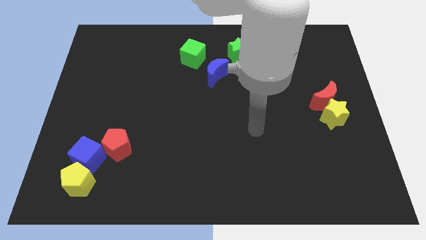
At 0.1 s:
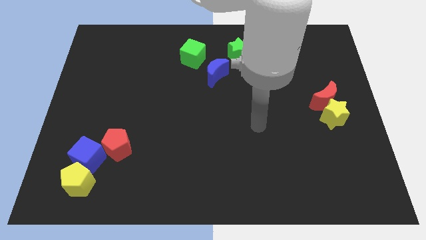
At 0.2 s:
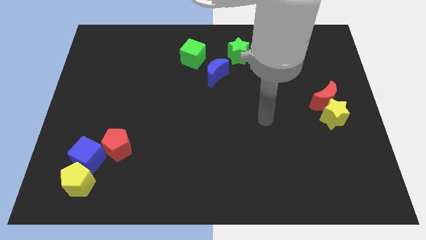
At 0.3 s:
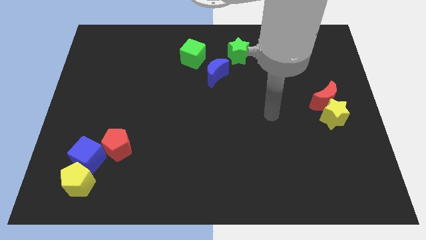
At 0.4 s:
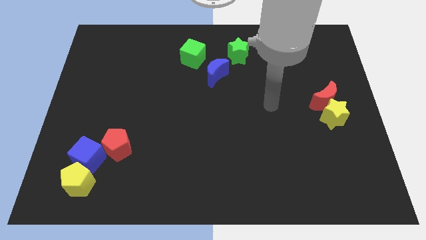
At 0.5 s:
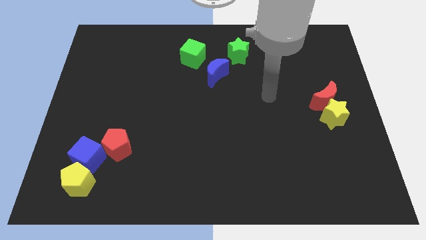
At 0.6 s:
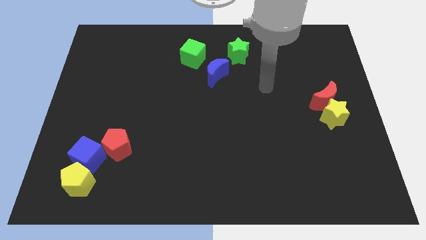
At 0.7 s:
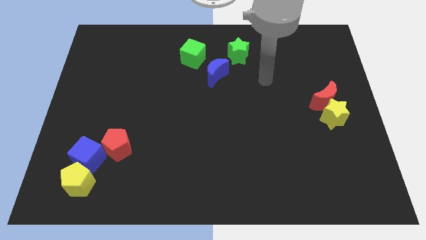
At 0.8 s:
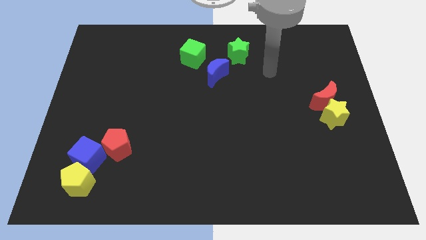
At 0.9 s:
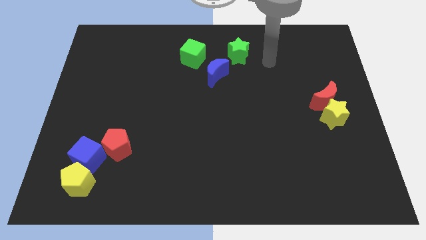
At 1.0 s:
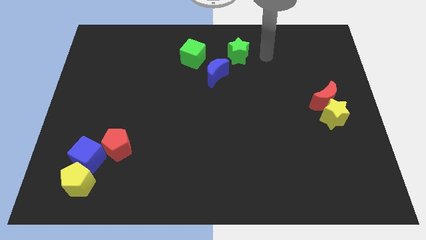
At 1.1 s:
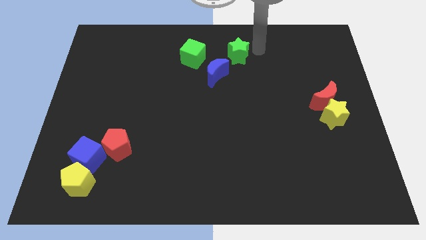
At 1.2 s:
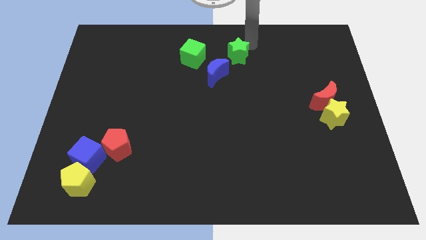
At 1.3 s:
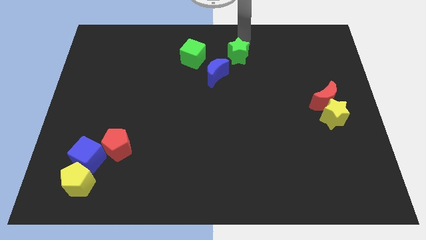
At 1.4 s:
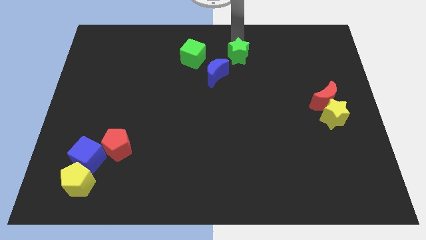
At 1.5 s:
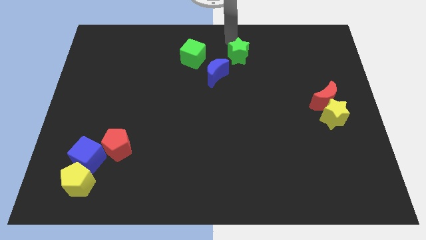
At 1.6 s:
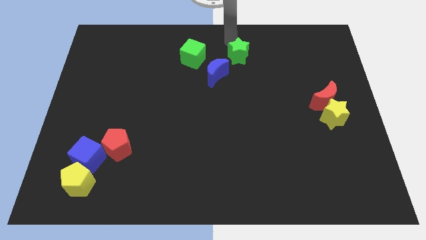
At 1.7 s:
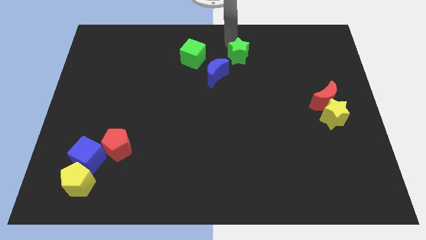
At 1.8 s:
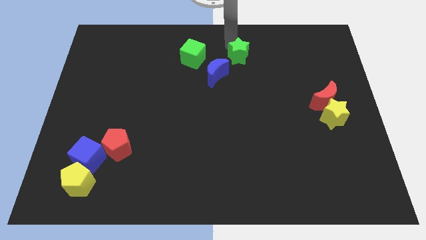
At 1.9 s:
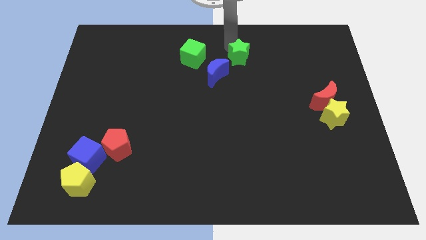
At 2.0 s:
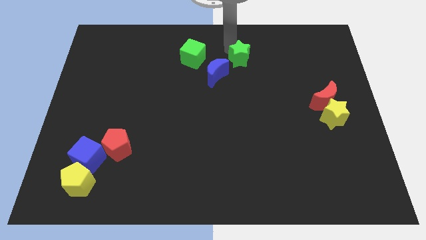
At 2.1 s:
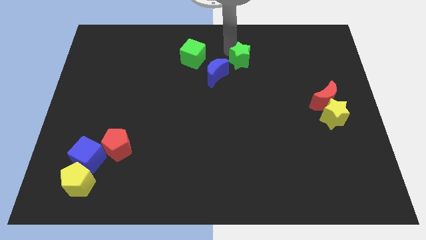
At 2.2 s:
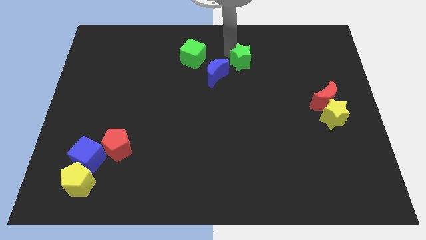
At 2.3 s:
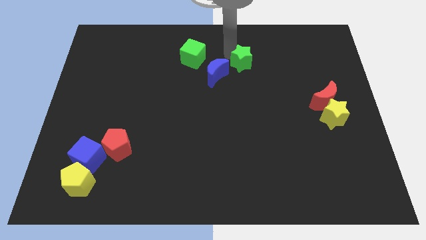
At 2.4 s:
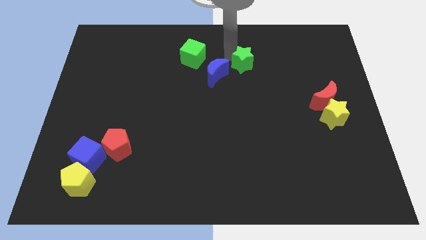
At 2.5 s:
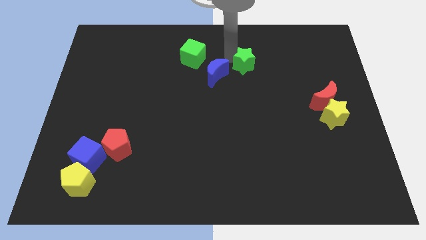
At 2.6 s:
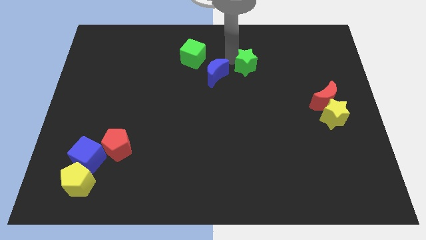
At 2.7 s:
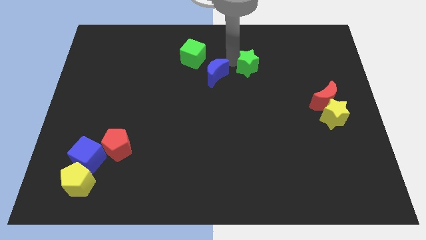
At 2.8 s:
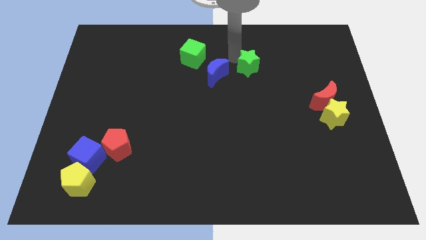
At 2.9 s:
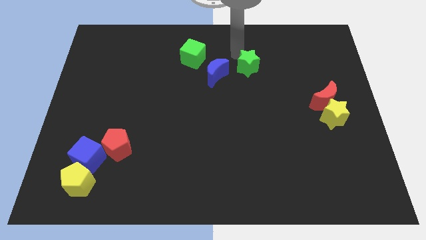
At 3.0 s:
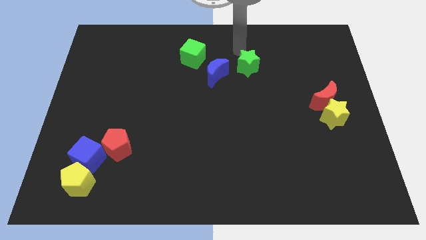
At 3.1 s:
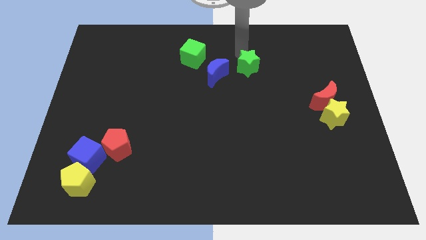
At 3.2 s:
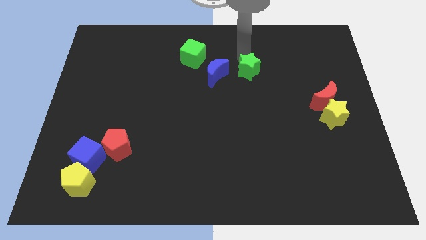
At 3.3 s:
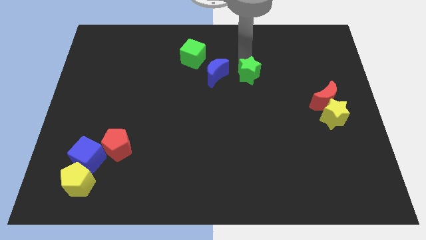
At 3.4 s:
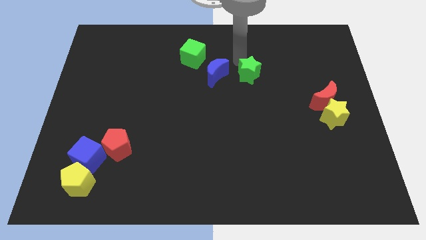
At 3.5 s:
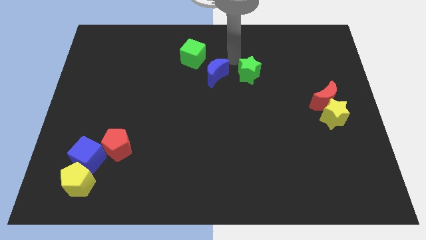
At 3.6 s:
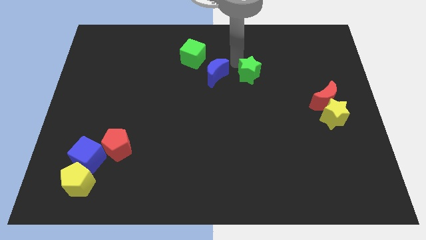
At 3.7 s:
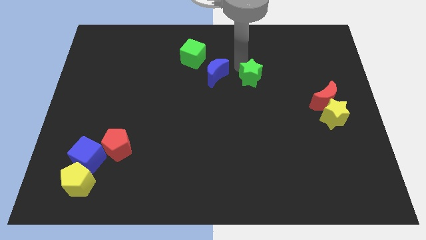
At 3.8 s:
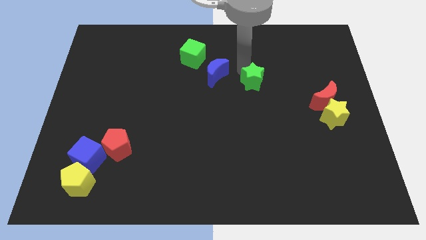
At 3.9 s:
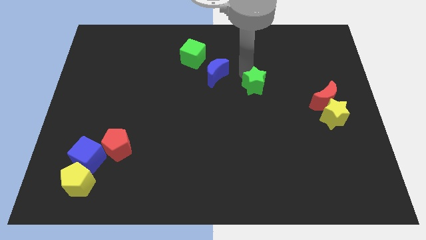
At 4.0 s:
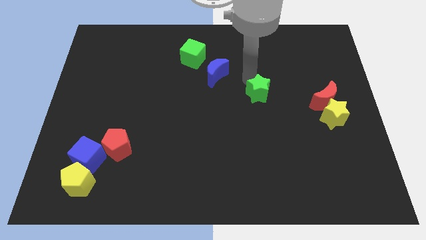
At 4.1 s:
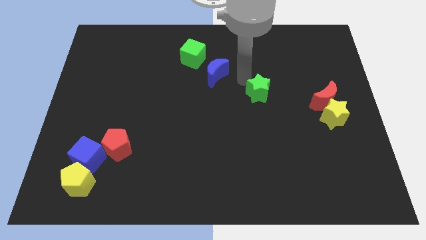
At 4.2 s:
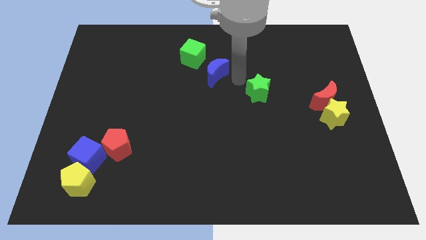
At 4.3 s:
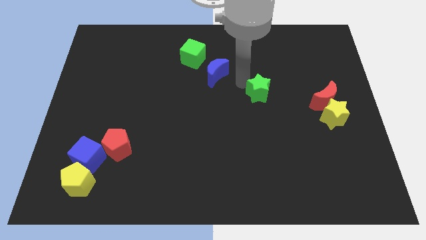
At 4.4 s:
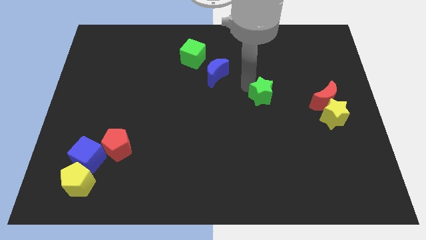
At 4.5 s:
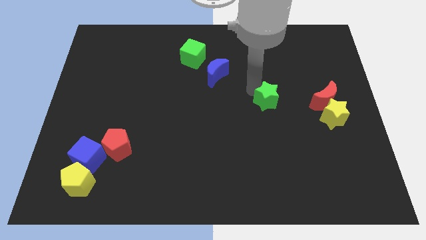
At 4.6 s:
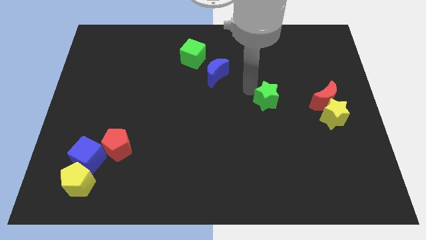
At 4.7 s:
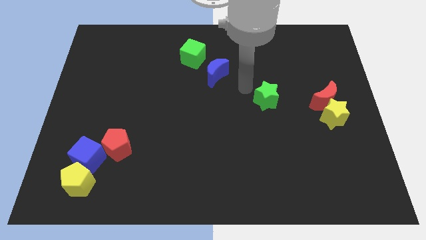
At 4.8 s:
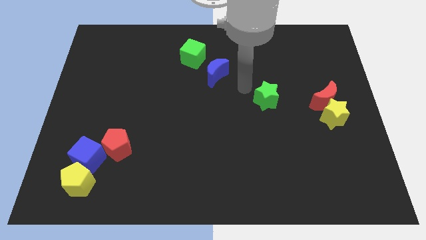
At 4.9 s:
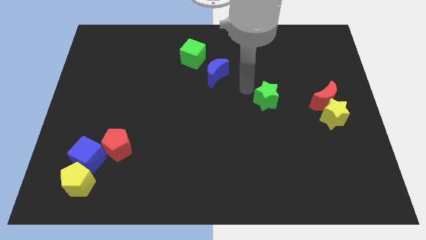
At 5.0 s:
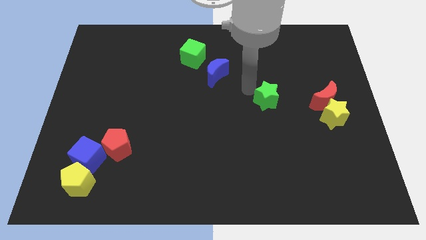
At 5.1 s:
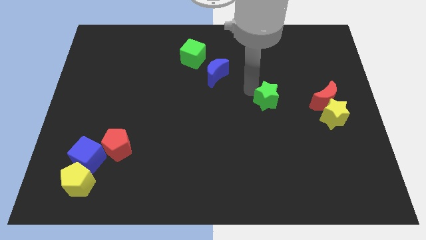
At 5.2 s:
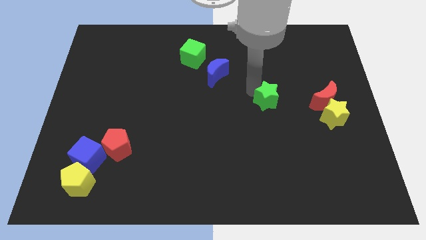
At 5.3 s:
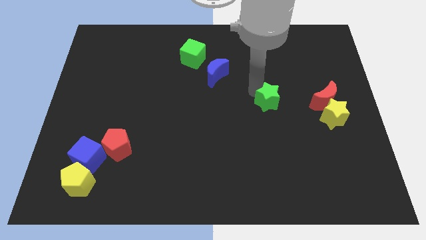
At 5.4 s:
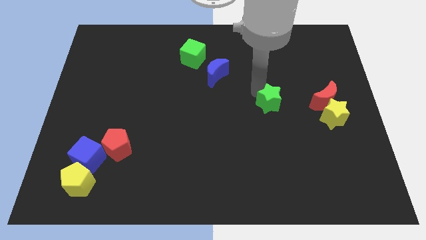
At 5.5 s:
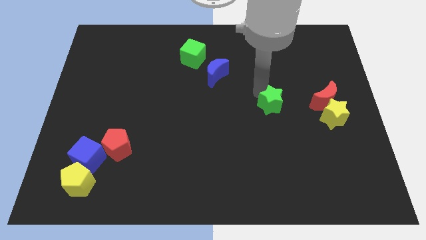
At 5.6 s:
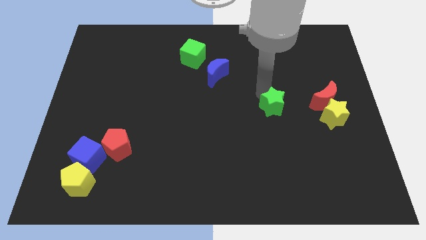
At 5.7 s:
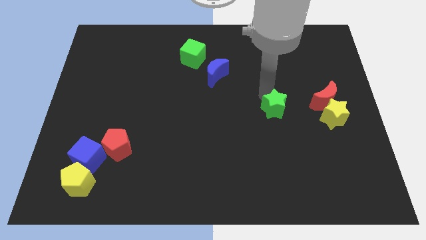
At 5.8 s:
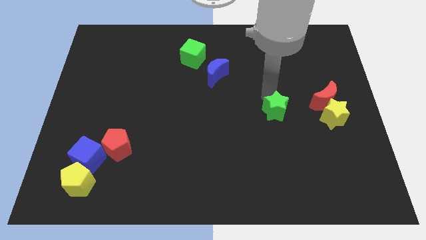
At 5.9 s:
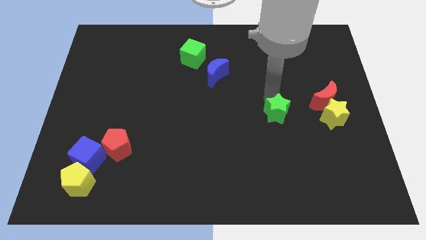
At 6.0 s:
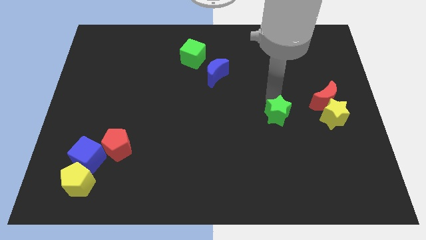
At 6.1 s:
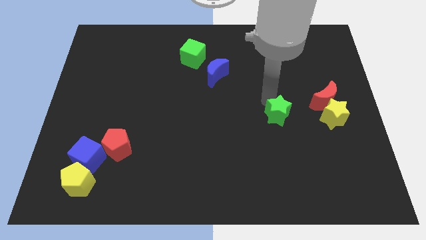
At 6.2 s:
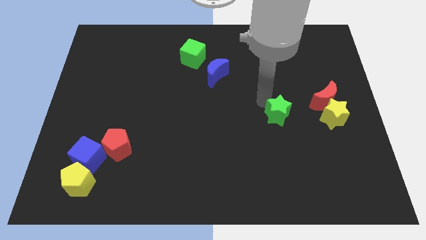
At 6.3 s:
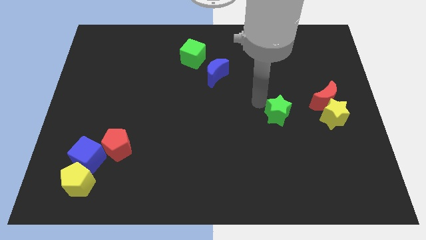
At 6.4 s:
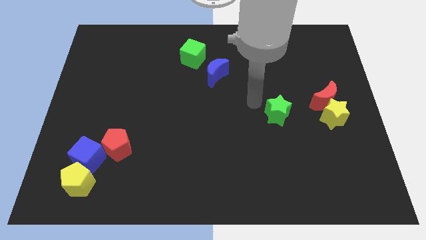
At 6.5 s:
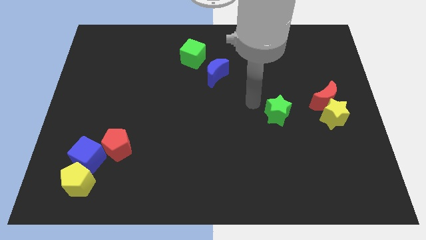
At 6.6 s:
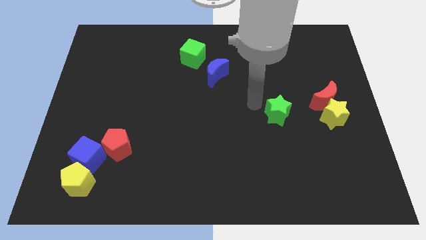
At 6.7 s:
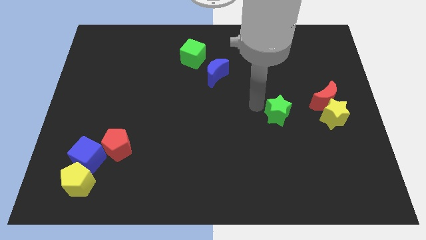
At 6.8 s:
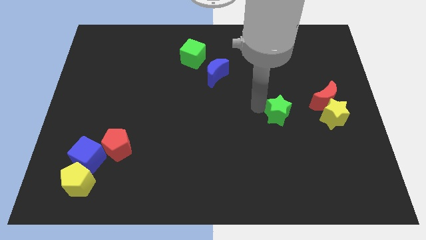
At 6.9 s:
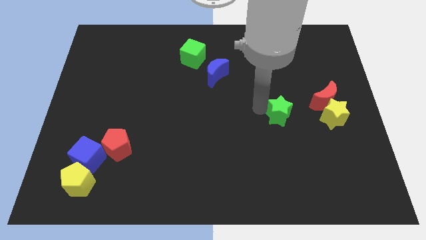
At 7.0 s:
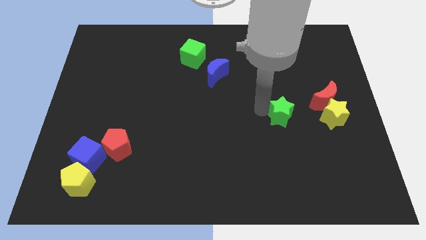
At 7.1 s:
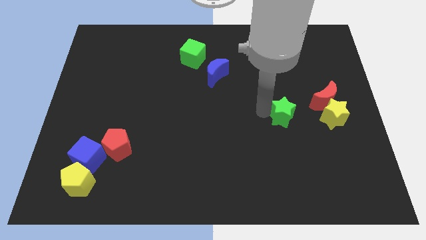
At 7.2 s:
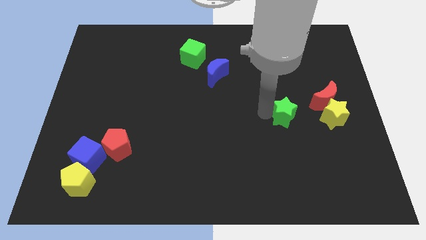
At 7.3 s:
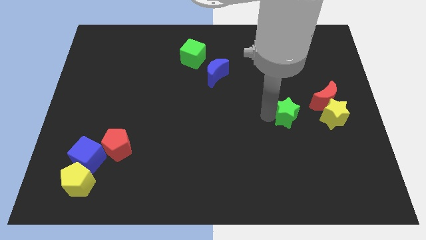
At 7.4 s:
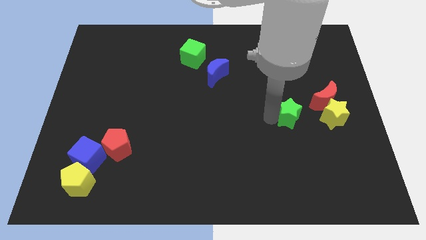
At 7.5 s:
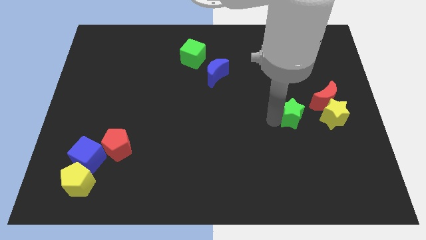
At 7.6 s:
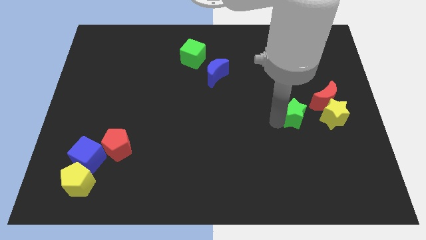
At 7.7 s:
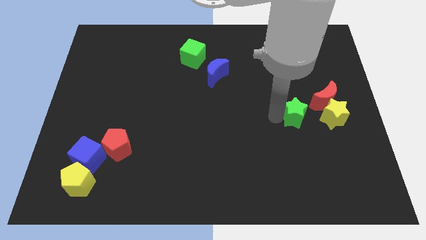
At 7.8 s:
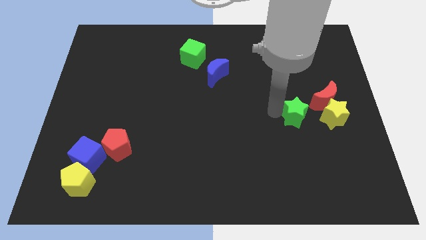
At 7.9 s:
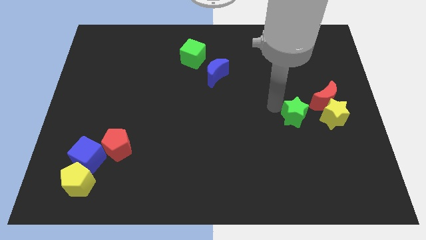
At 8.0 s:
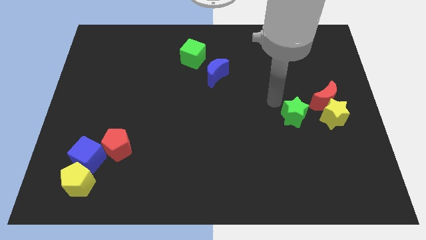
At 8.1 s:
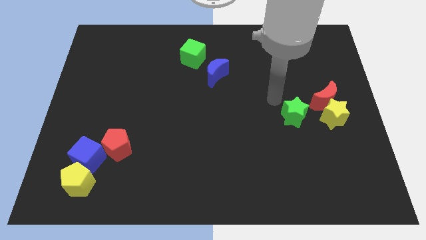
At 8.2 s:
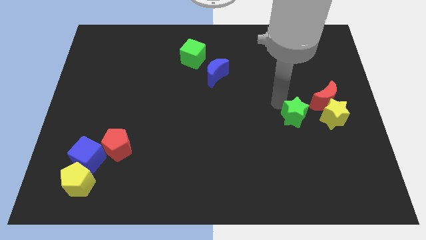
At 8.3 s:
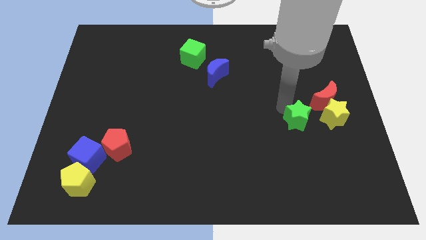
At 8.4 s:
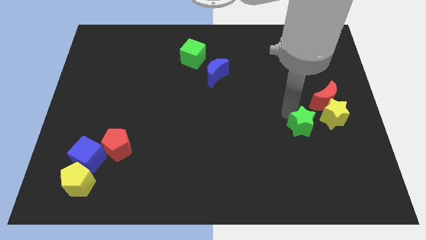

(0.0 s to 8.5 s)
move the green star to the bottom left of the yellow star
